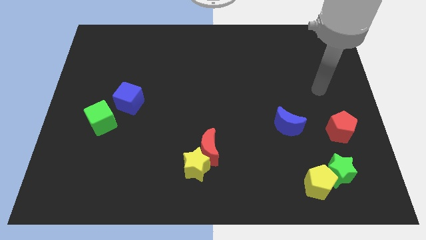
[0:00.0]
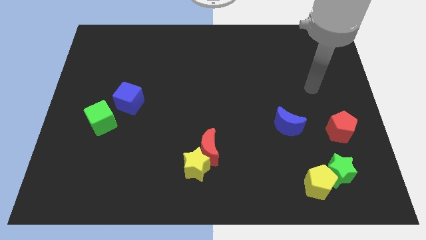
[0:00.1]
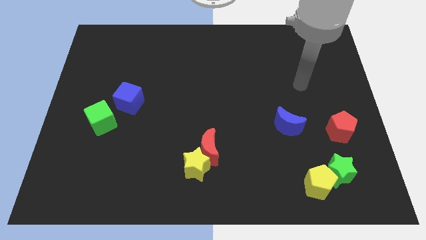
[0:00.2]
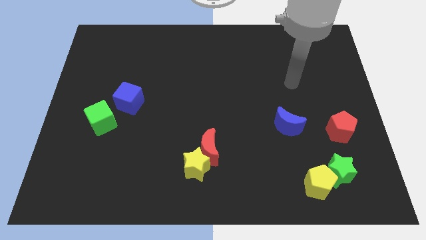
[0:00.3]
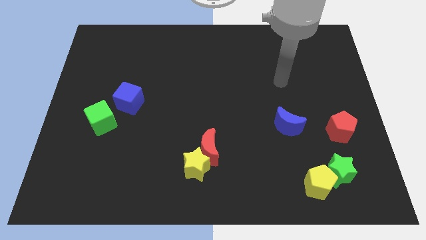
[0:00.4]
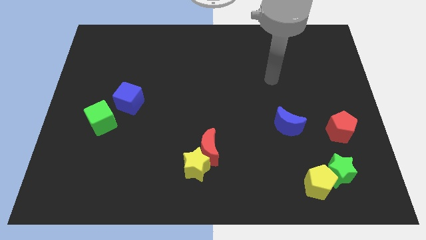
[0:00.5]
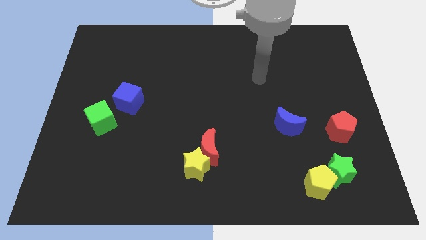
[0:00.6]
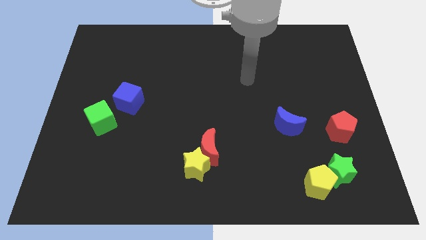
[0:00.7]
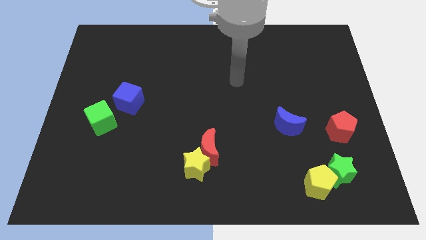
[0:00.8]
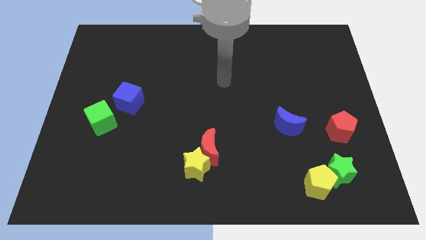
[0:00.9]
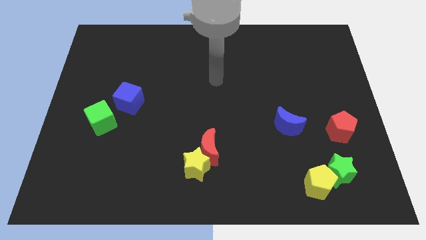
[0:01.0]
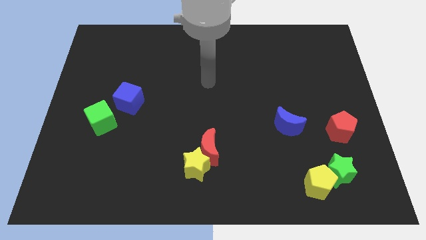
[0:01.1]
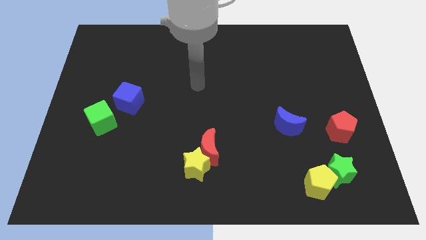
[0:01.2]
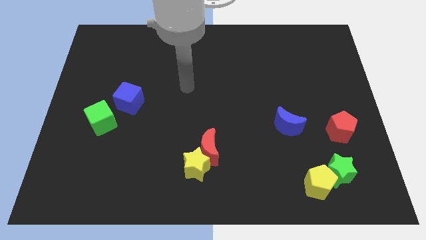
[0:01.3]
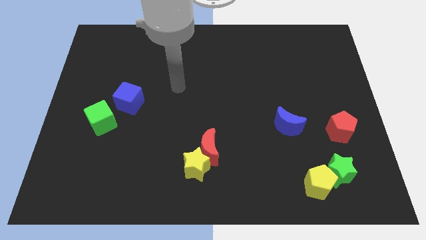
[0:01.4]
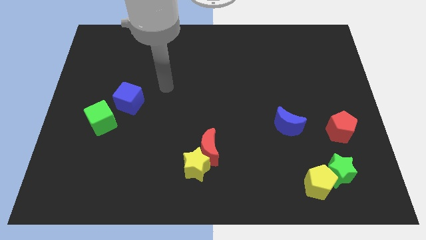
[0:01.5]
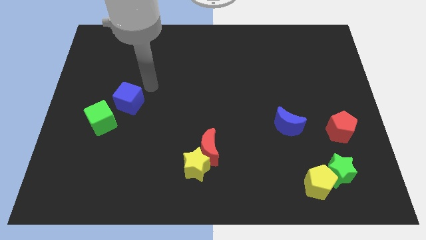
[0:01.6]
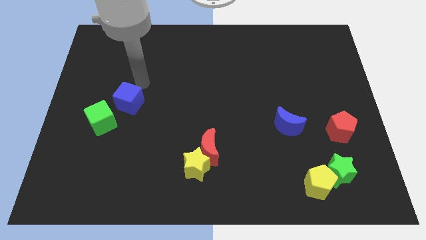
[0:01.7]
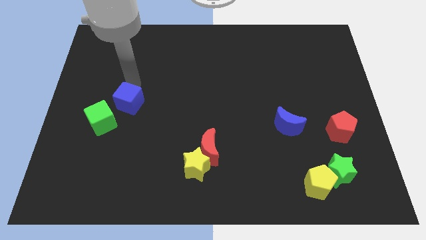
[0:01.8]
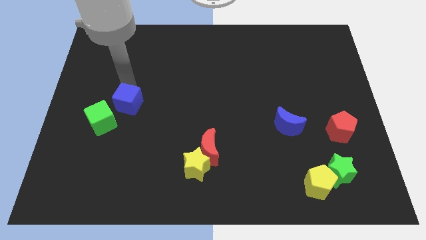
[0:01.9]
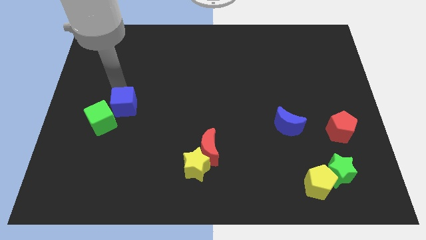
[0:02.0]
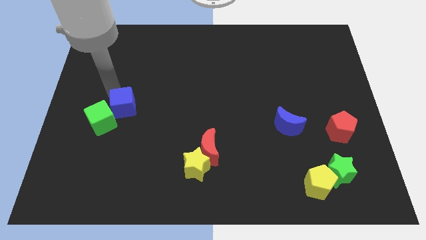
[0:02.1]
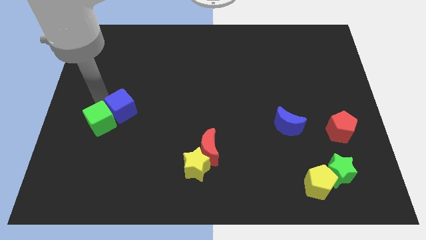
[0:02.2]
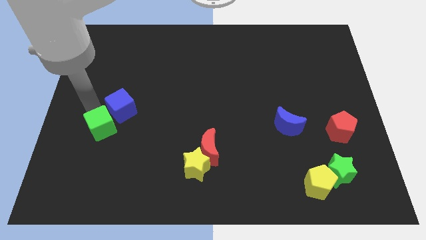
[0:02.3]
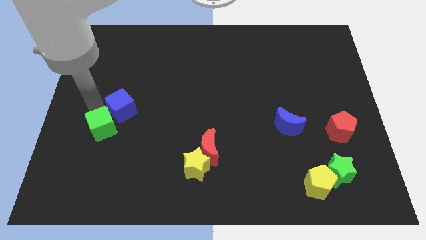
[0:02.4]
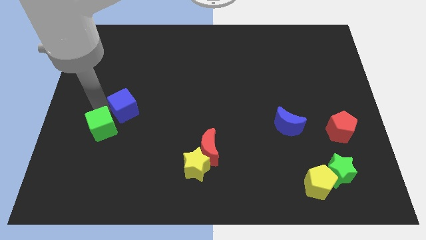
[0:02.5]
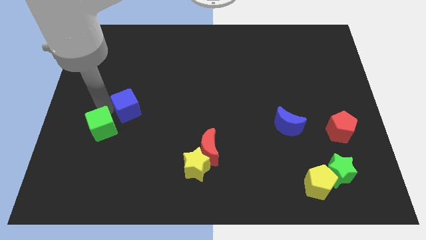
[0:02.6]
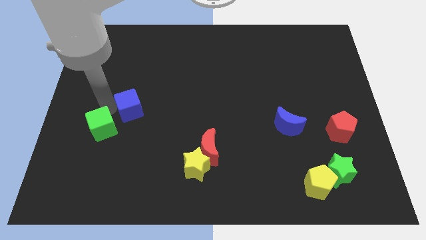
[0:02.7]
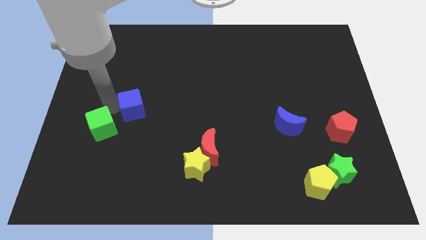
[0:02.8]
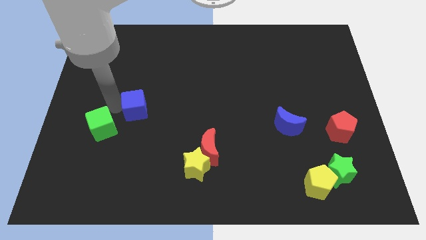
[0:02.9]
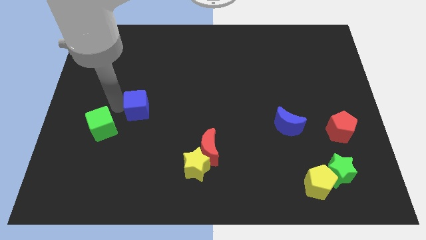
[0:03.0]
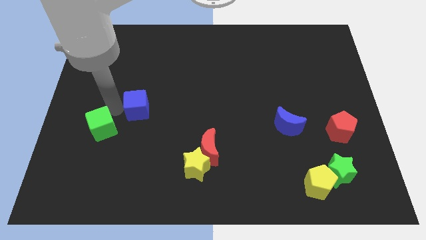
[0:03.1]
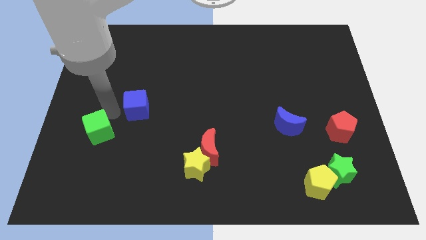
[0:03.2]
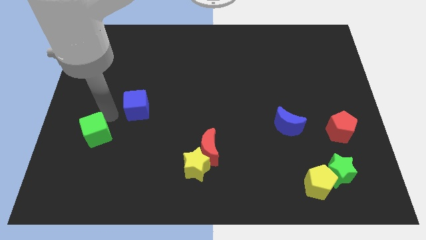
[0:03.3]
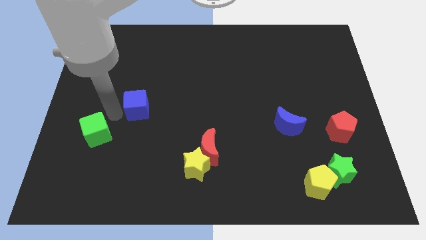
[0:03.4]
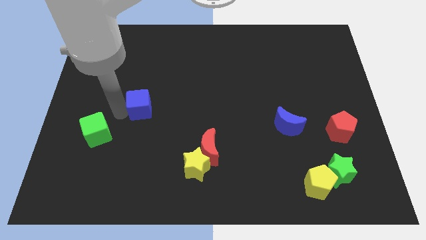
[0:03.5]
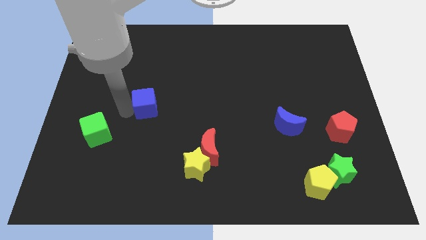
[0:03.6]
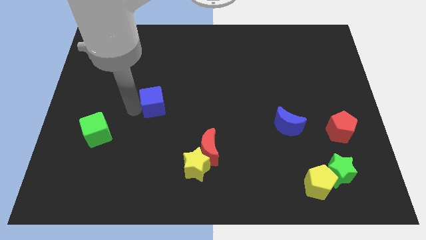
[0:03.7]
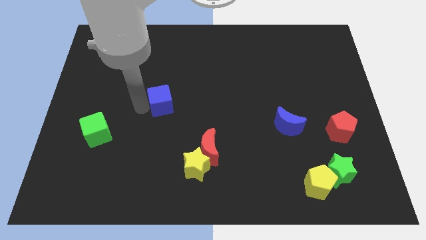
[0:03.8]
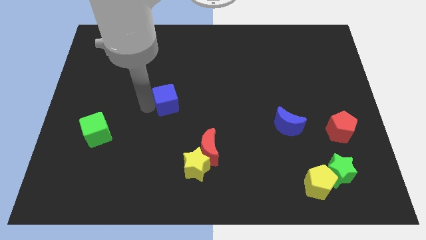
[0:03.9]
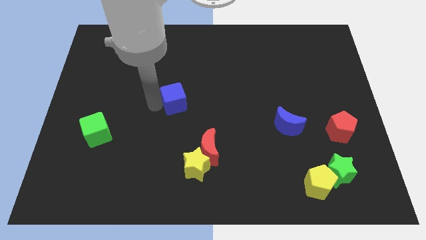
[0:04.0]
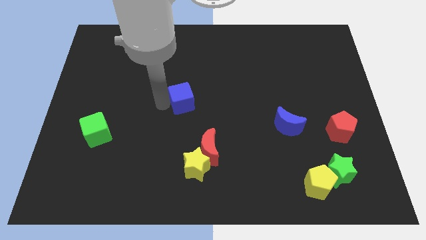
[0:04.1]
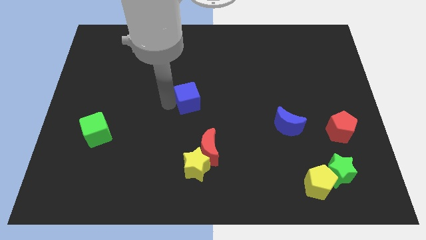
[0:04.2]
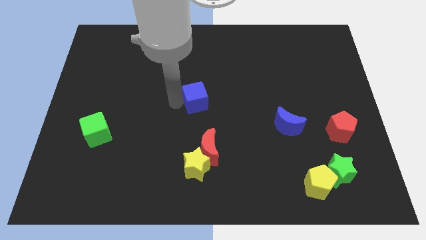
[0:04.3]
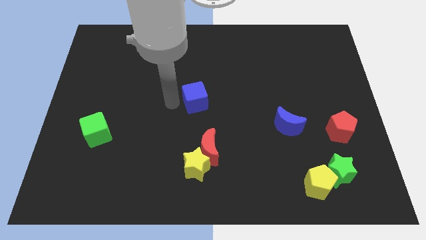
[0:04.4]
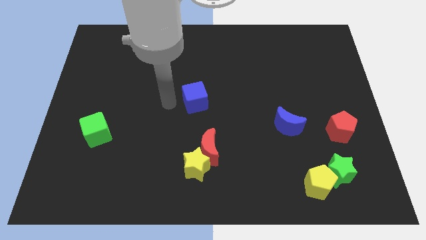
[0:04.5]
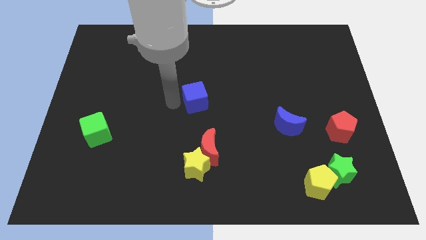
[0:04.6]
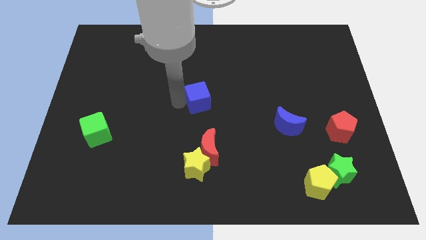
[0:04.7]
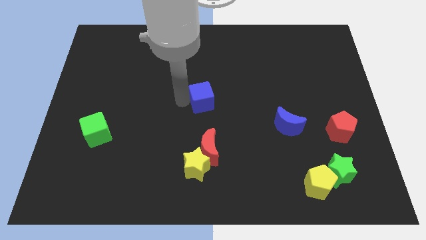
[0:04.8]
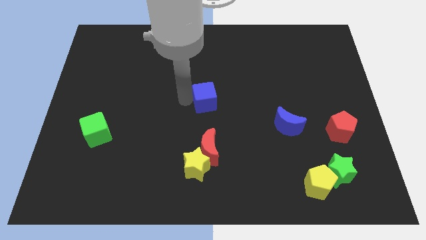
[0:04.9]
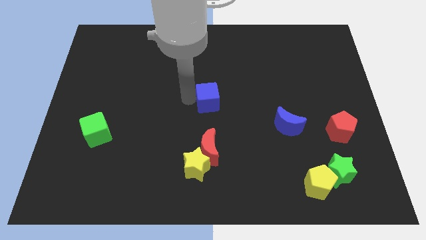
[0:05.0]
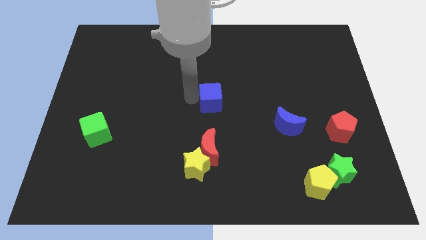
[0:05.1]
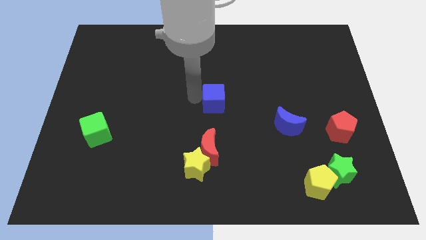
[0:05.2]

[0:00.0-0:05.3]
move the blue cube right

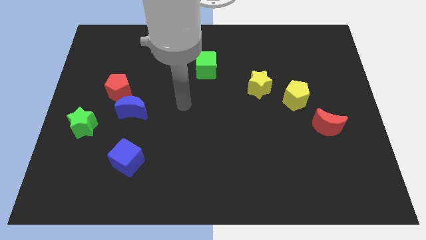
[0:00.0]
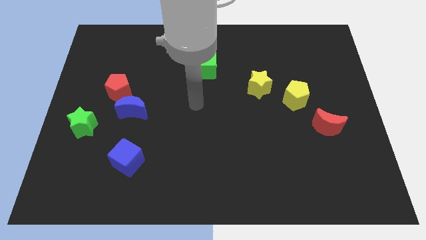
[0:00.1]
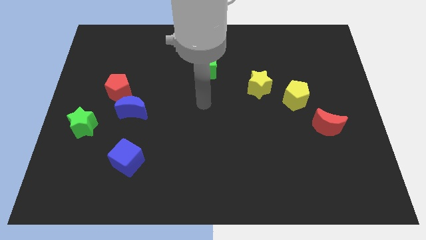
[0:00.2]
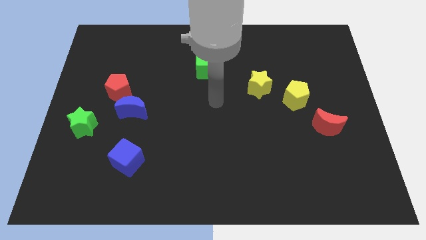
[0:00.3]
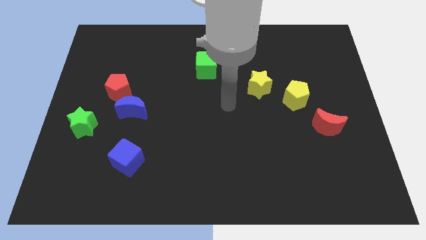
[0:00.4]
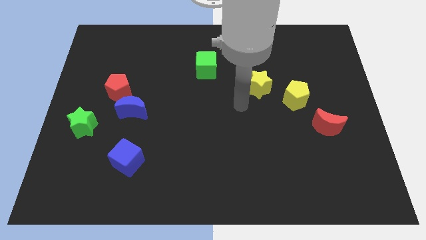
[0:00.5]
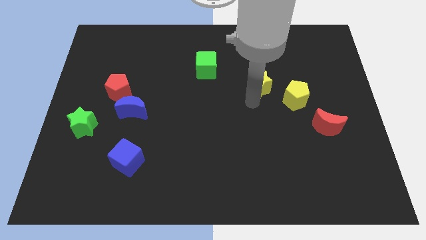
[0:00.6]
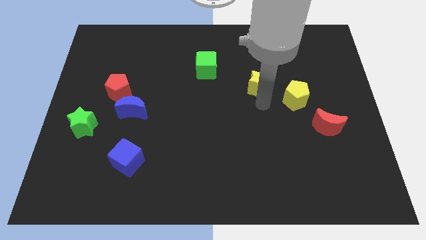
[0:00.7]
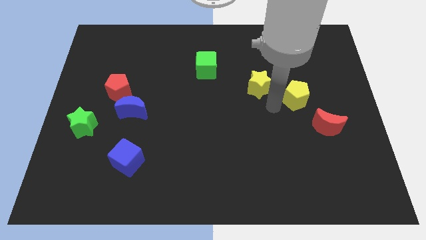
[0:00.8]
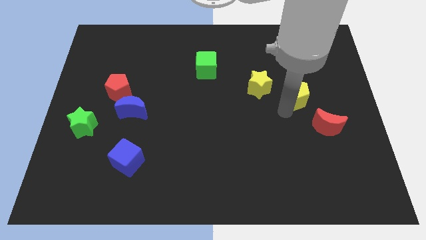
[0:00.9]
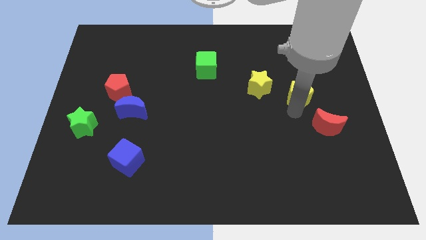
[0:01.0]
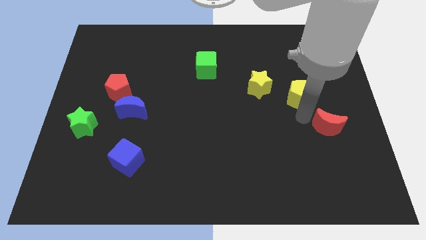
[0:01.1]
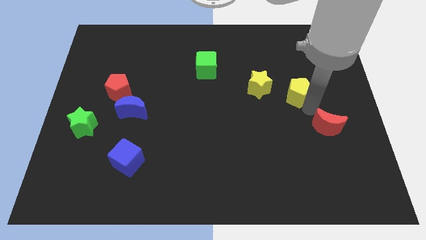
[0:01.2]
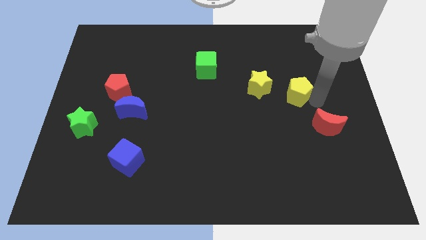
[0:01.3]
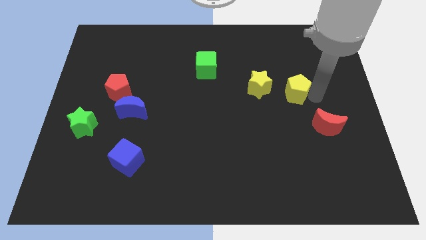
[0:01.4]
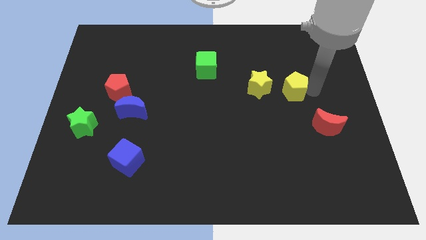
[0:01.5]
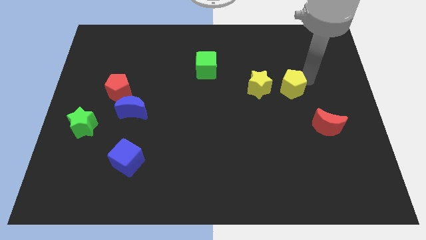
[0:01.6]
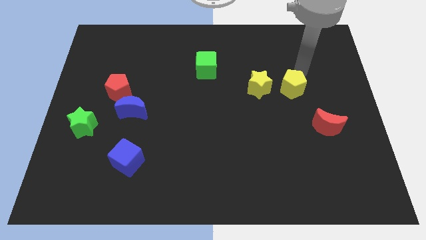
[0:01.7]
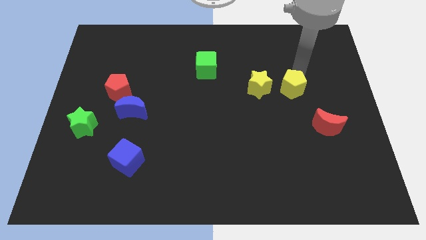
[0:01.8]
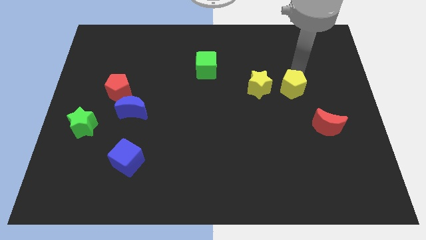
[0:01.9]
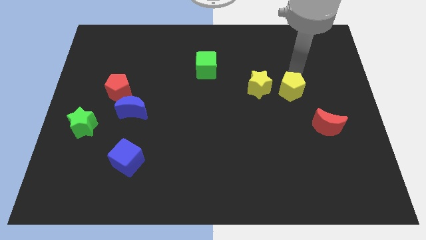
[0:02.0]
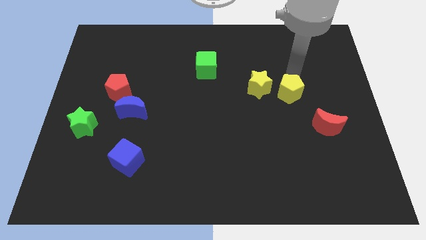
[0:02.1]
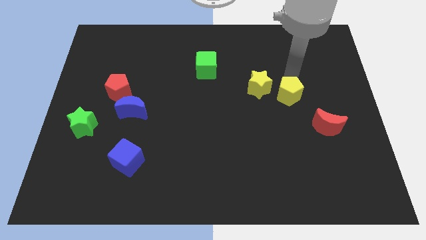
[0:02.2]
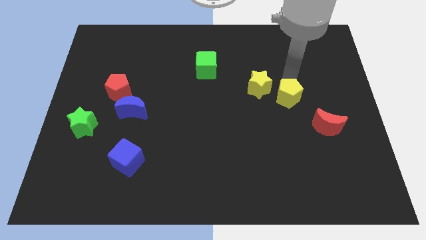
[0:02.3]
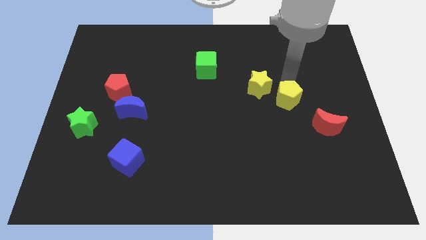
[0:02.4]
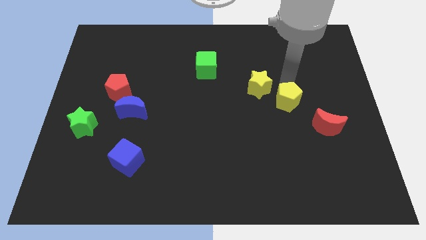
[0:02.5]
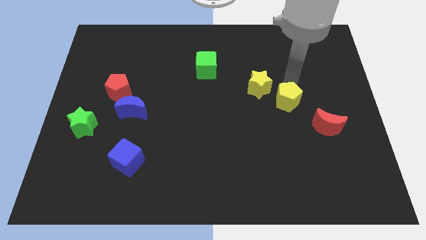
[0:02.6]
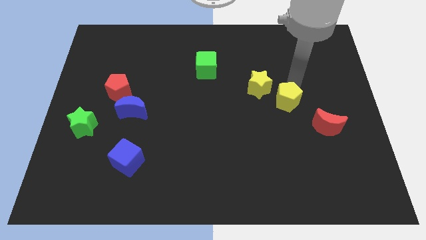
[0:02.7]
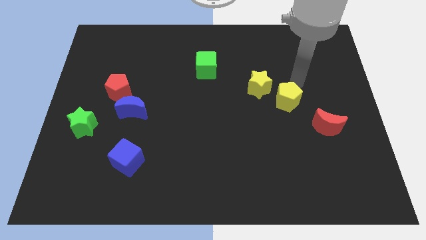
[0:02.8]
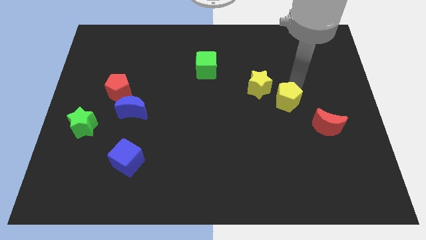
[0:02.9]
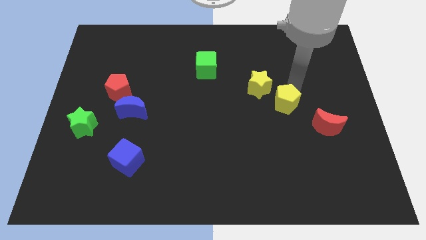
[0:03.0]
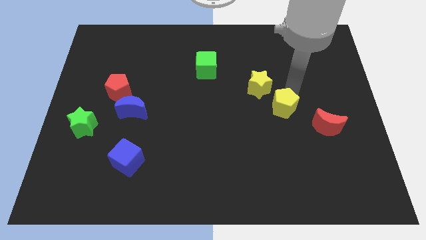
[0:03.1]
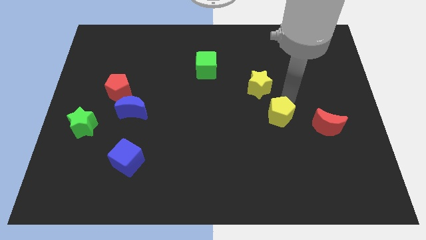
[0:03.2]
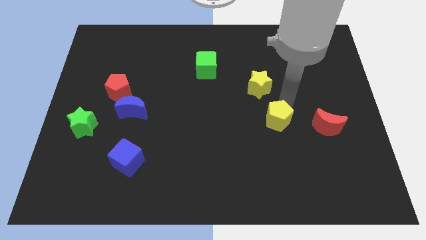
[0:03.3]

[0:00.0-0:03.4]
slightly slide the yellow pentagon down and left diagonally
